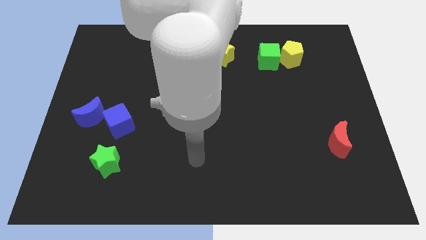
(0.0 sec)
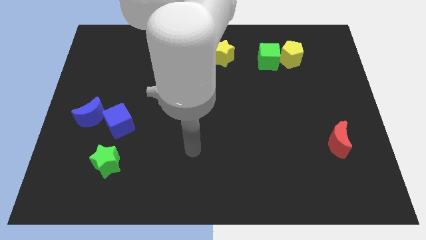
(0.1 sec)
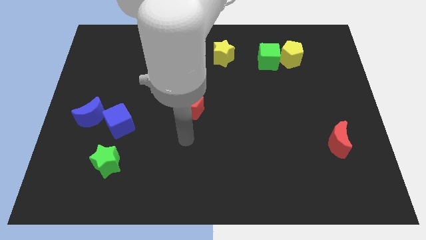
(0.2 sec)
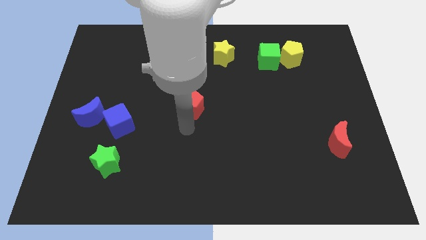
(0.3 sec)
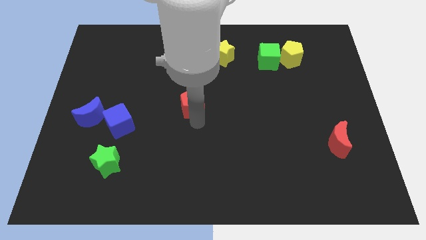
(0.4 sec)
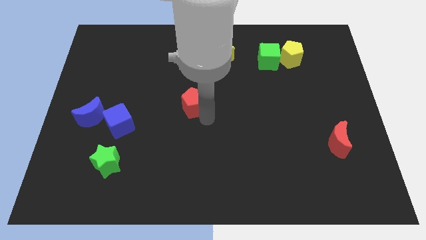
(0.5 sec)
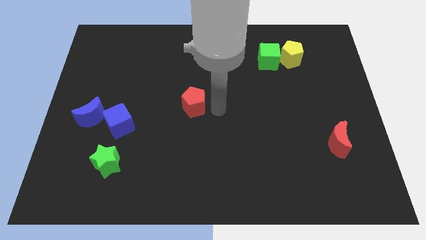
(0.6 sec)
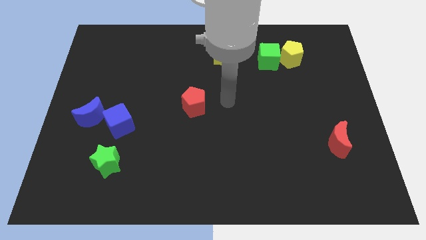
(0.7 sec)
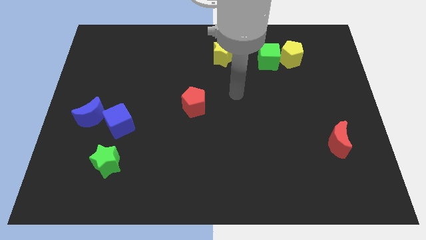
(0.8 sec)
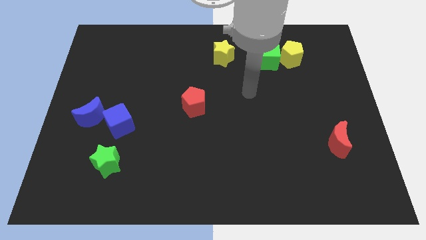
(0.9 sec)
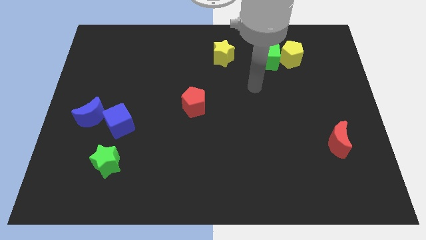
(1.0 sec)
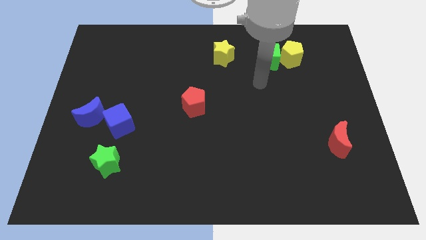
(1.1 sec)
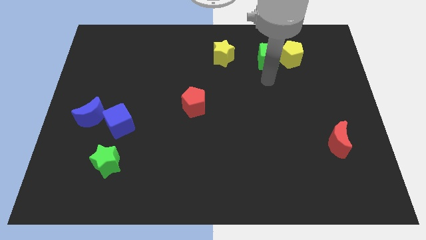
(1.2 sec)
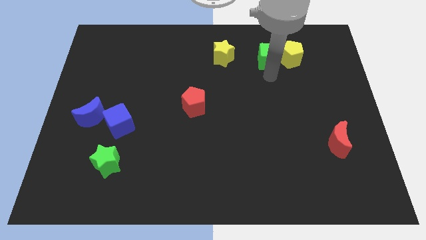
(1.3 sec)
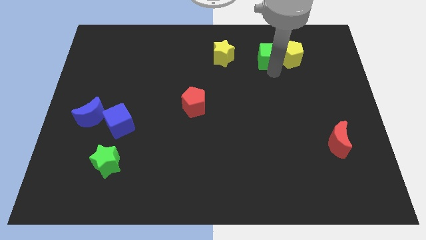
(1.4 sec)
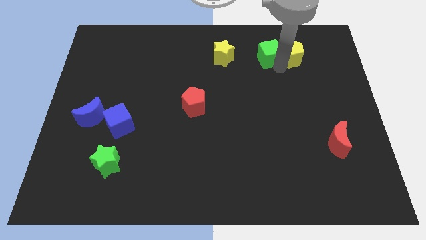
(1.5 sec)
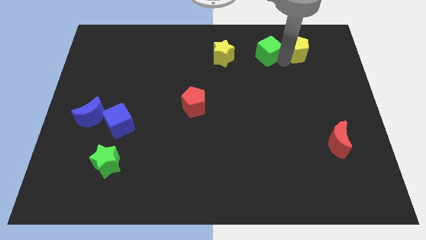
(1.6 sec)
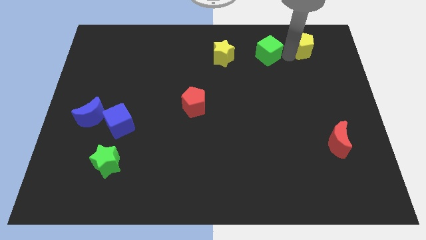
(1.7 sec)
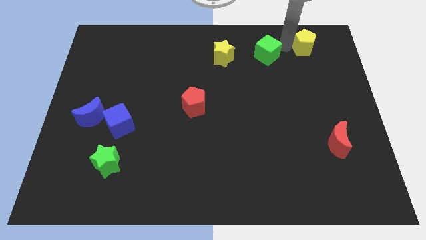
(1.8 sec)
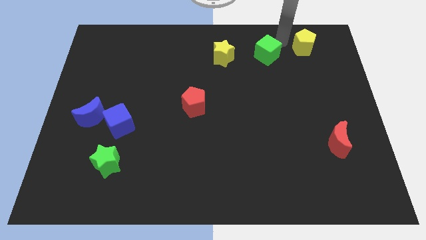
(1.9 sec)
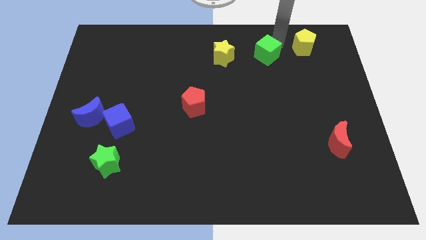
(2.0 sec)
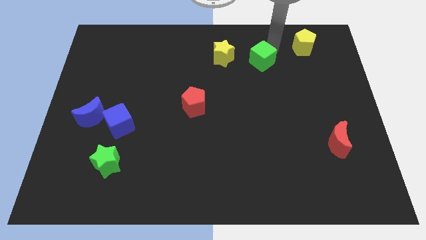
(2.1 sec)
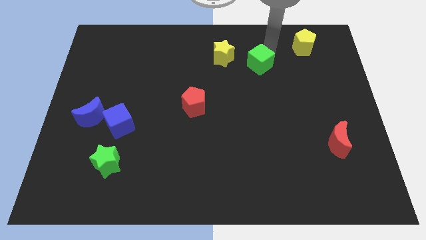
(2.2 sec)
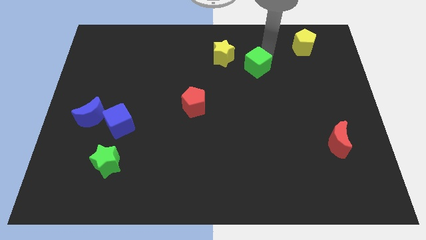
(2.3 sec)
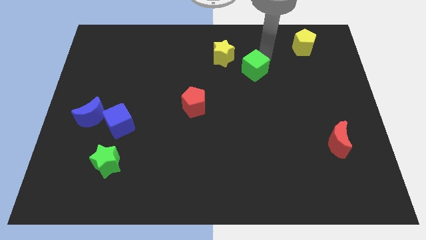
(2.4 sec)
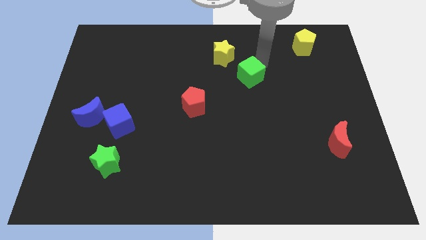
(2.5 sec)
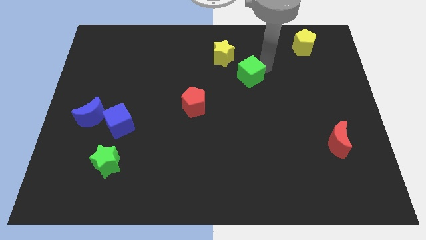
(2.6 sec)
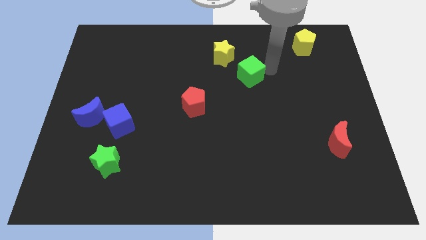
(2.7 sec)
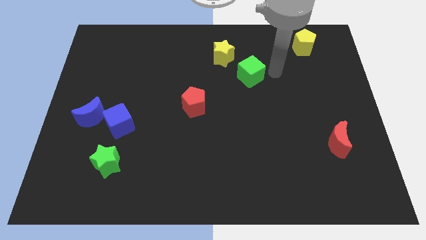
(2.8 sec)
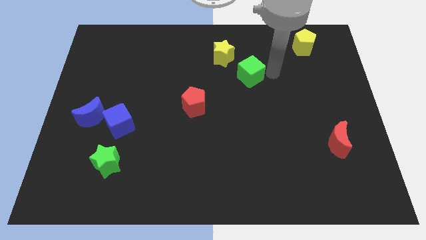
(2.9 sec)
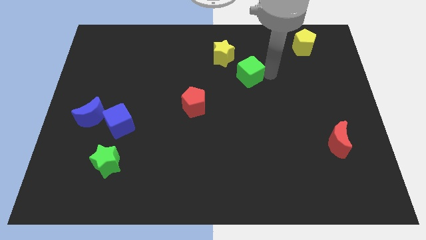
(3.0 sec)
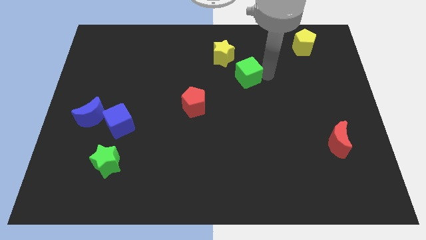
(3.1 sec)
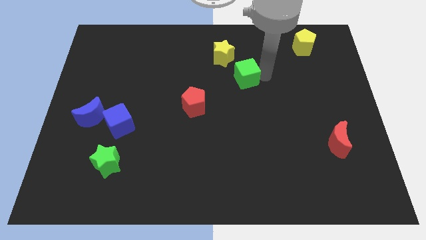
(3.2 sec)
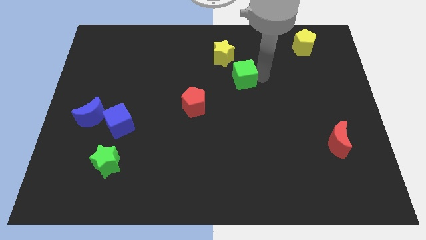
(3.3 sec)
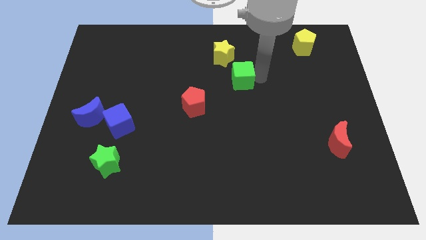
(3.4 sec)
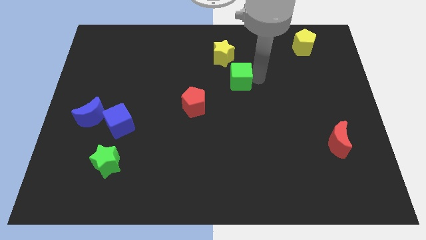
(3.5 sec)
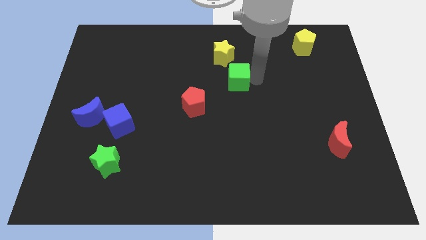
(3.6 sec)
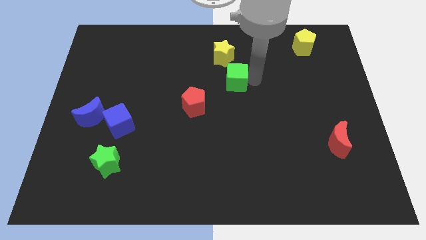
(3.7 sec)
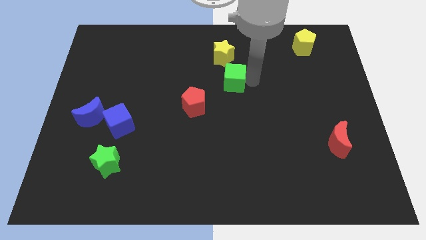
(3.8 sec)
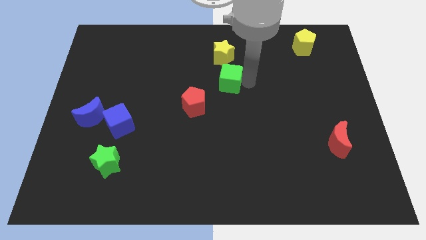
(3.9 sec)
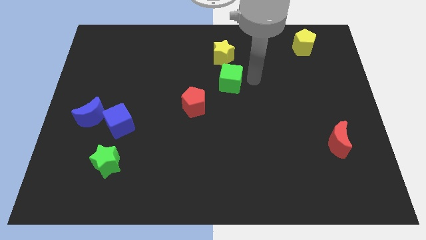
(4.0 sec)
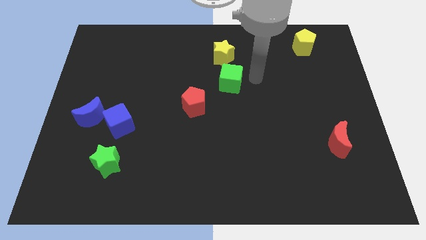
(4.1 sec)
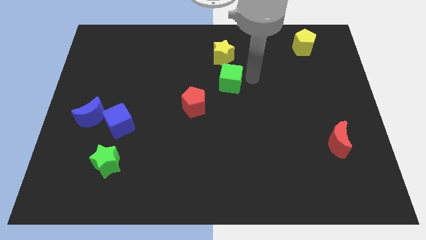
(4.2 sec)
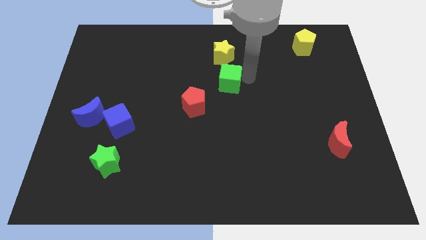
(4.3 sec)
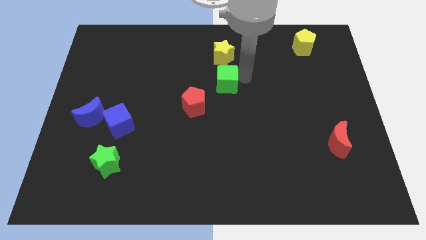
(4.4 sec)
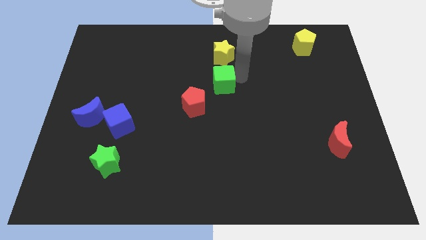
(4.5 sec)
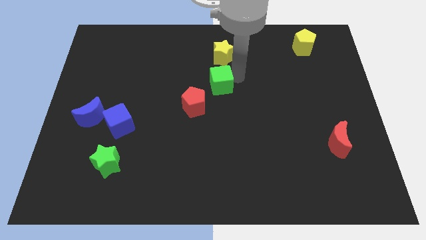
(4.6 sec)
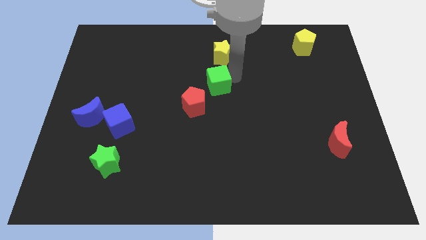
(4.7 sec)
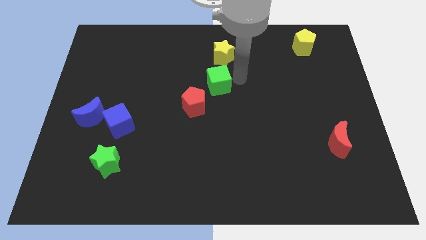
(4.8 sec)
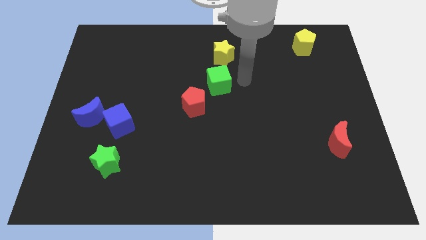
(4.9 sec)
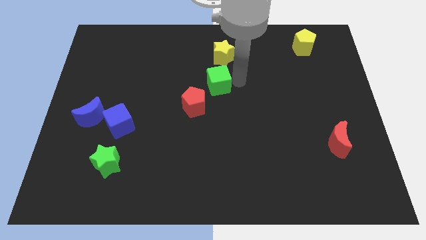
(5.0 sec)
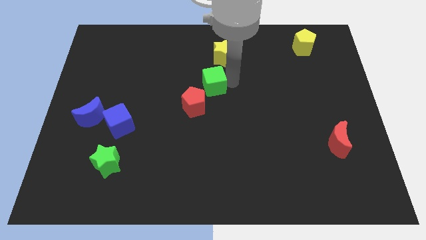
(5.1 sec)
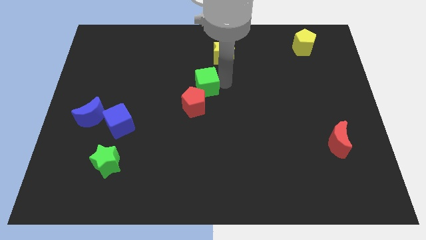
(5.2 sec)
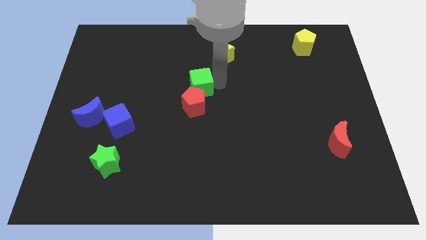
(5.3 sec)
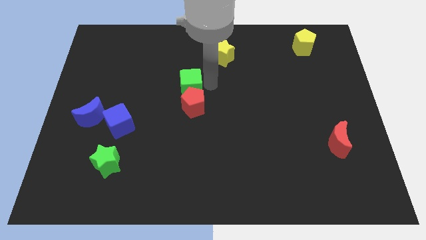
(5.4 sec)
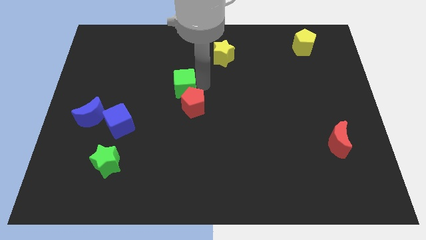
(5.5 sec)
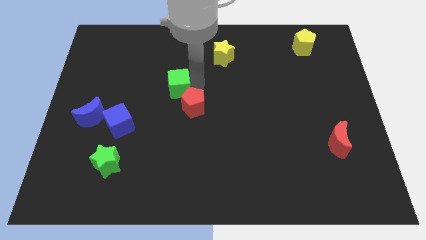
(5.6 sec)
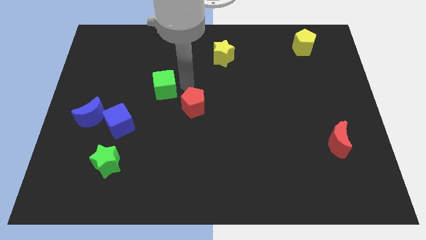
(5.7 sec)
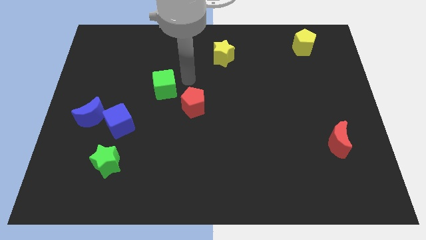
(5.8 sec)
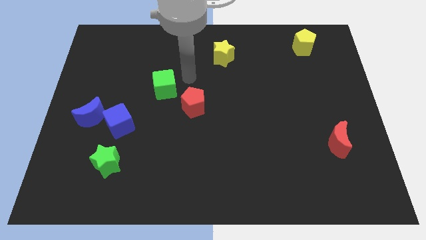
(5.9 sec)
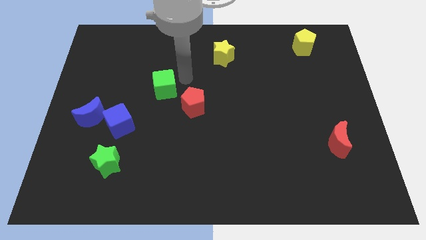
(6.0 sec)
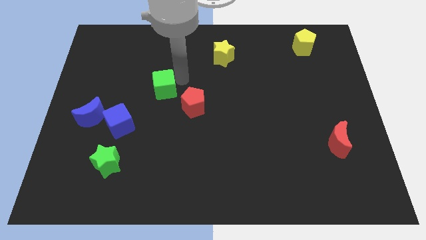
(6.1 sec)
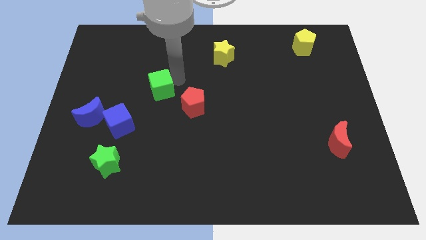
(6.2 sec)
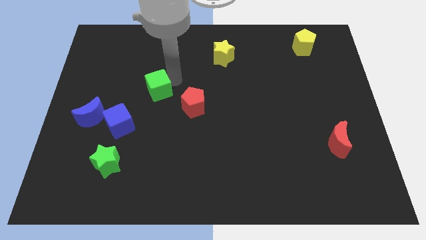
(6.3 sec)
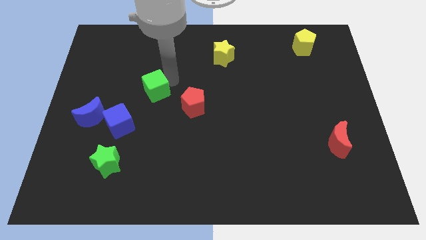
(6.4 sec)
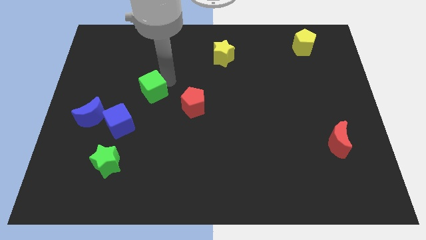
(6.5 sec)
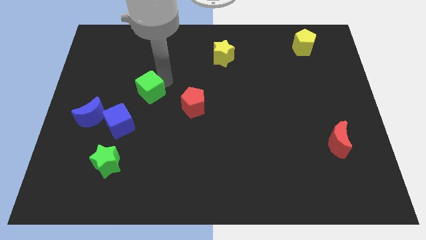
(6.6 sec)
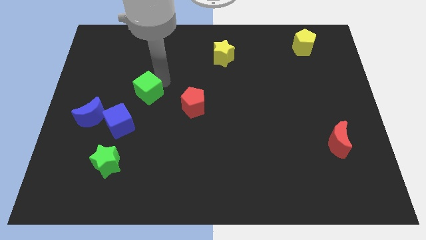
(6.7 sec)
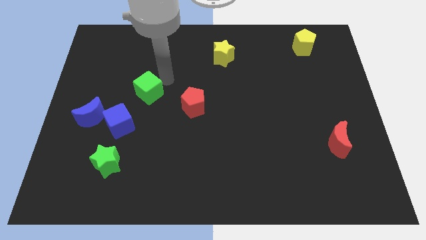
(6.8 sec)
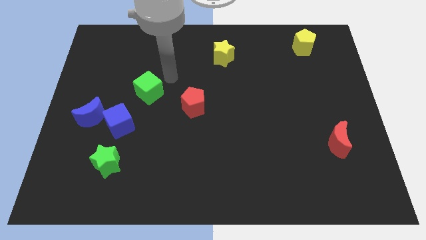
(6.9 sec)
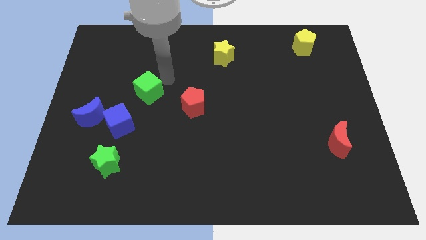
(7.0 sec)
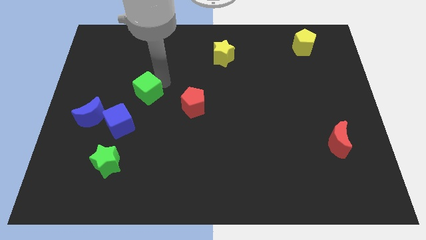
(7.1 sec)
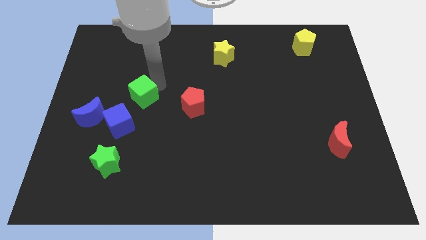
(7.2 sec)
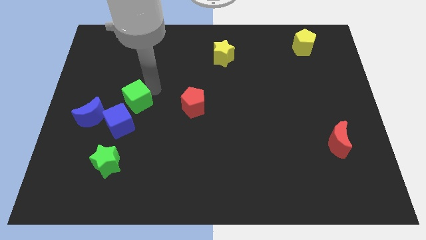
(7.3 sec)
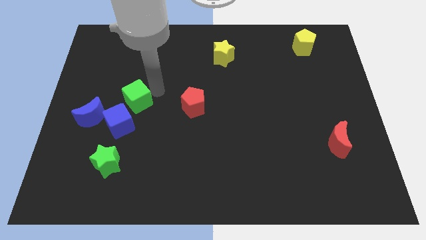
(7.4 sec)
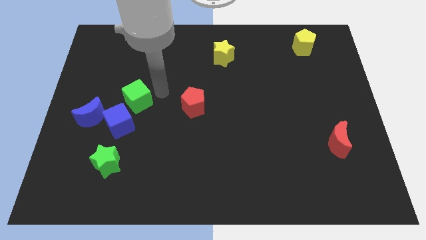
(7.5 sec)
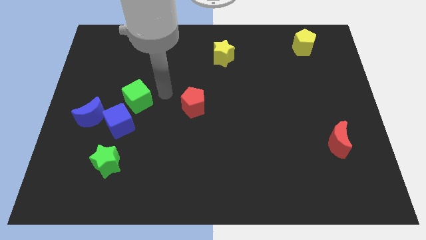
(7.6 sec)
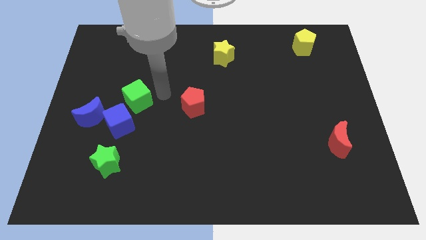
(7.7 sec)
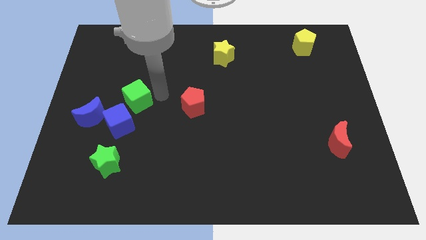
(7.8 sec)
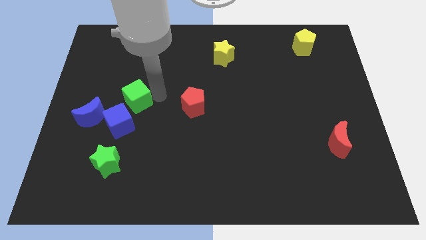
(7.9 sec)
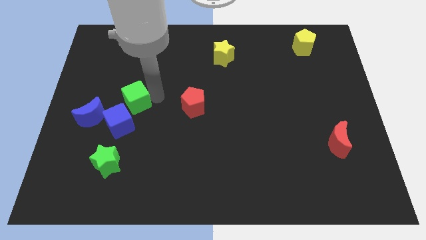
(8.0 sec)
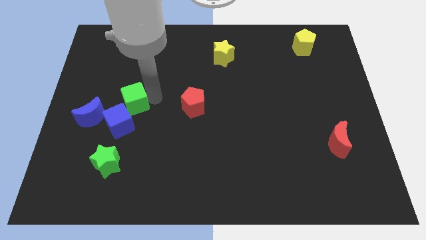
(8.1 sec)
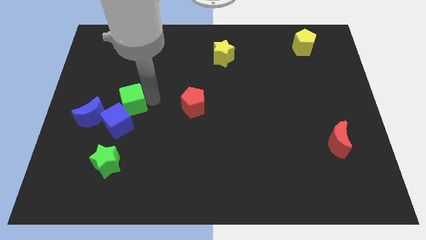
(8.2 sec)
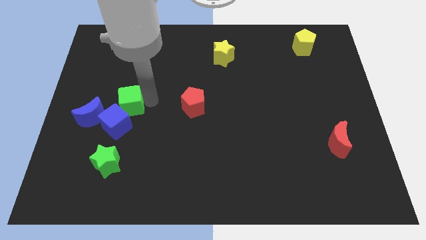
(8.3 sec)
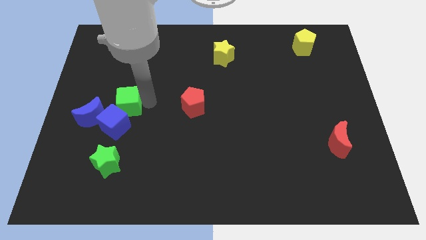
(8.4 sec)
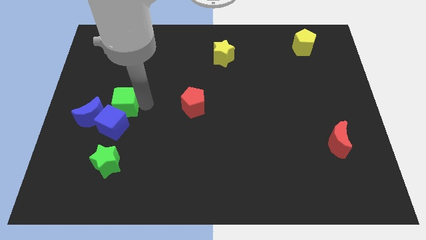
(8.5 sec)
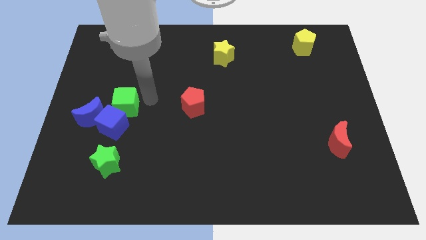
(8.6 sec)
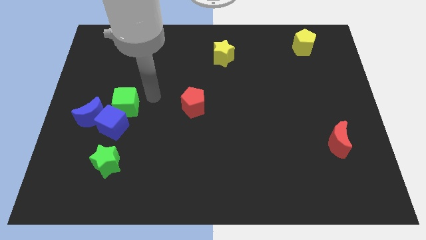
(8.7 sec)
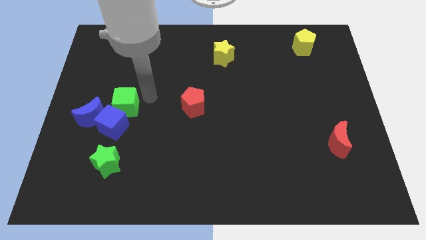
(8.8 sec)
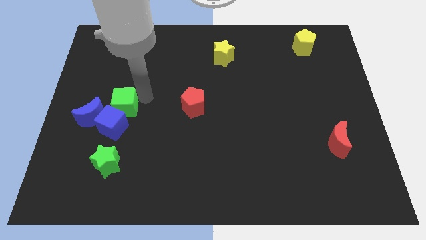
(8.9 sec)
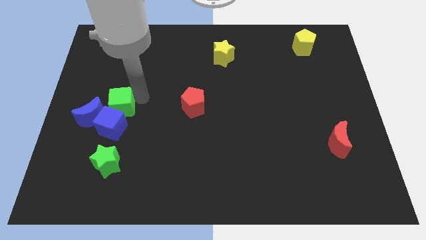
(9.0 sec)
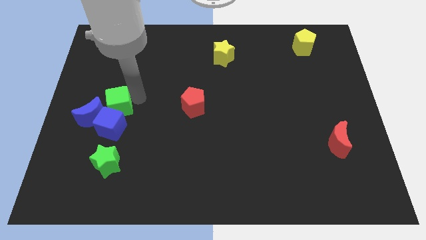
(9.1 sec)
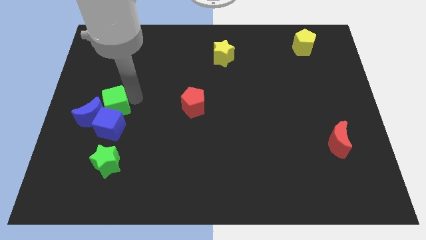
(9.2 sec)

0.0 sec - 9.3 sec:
slide the green cube close to the blue moon
